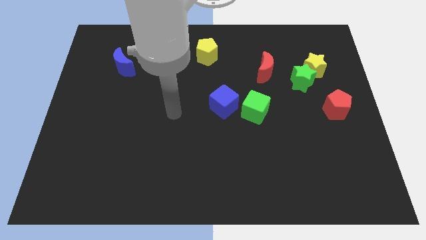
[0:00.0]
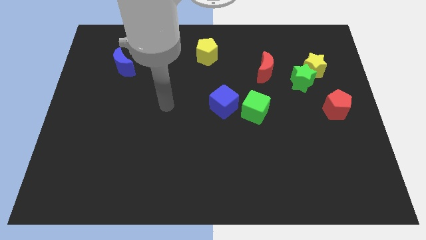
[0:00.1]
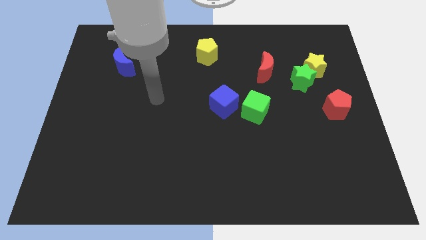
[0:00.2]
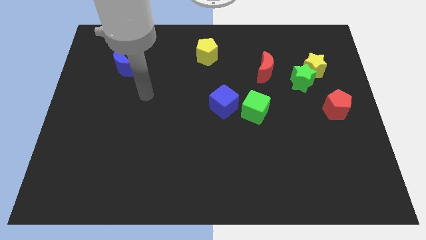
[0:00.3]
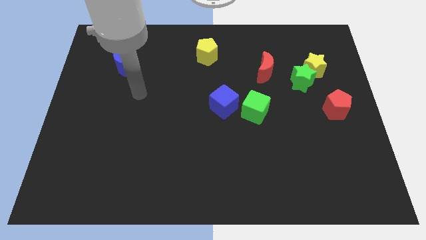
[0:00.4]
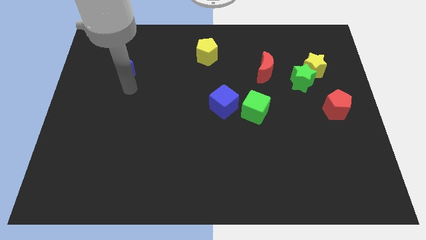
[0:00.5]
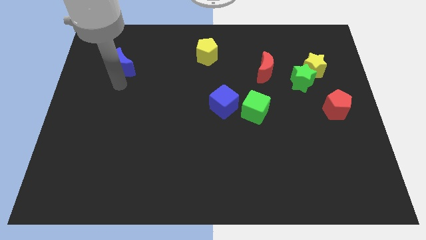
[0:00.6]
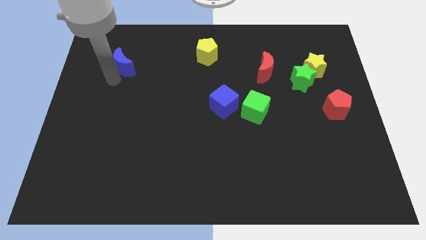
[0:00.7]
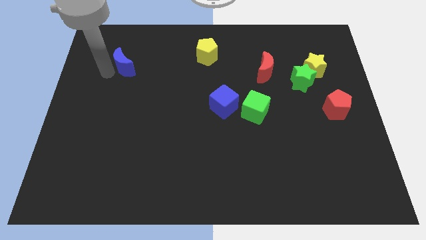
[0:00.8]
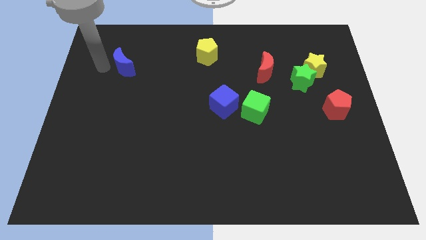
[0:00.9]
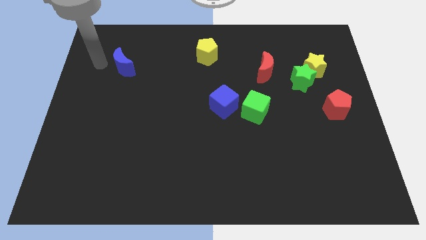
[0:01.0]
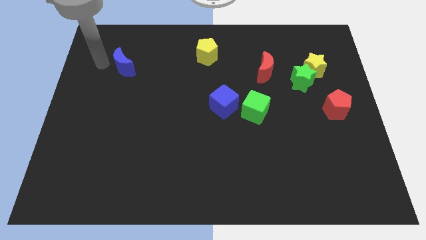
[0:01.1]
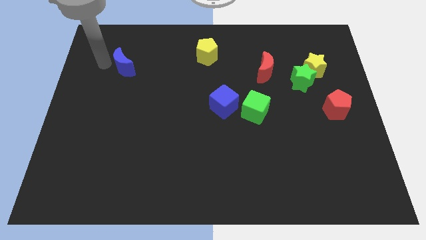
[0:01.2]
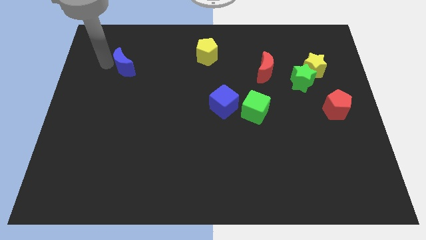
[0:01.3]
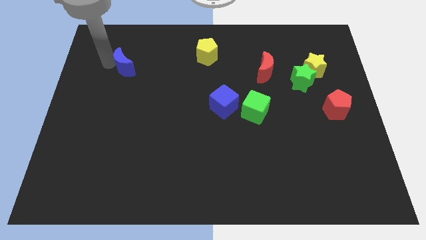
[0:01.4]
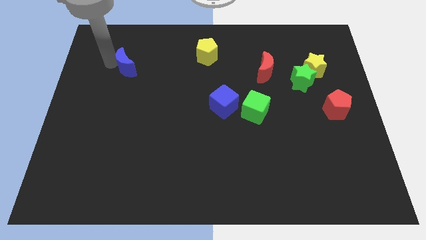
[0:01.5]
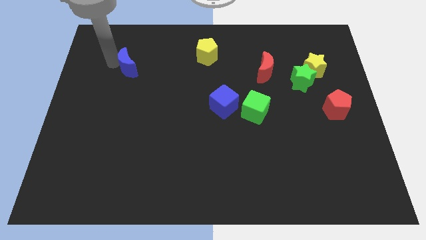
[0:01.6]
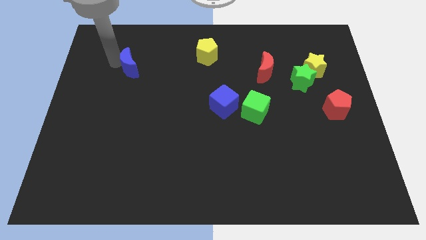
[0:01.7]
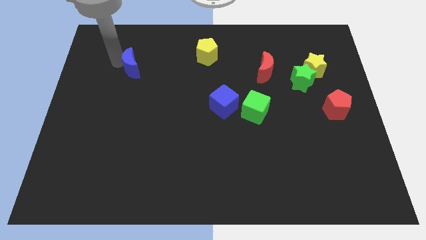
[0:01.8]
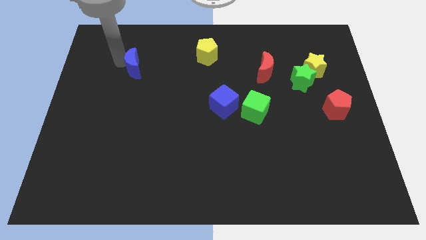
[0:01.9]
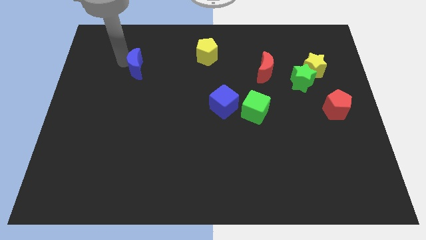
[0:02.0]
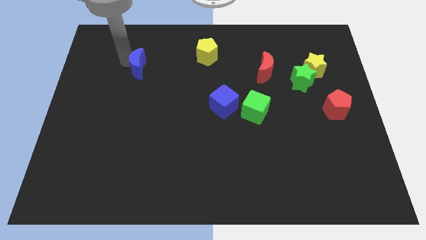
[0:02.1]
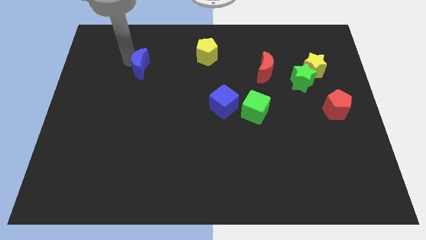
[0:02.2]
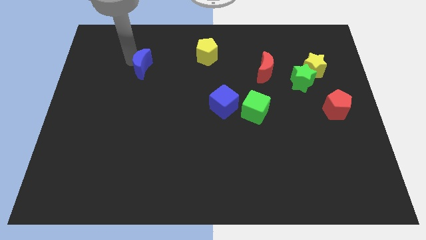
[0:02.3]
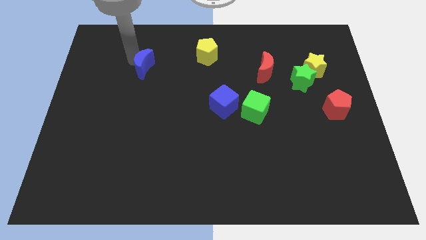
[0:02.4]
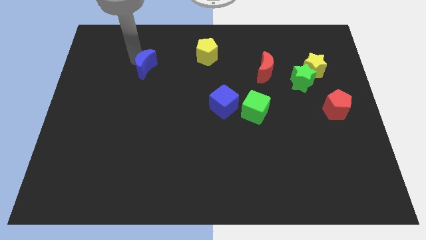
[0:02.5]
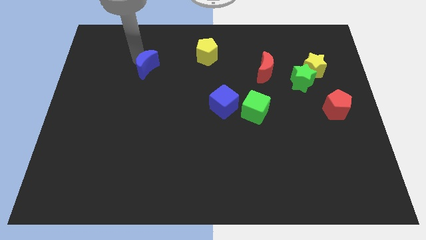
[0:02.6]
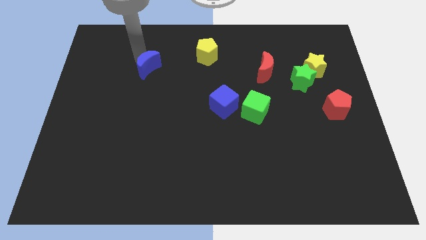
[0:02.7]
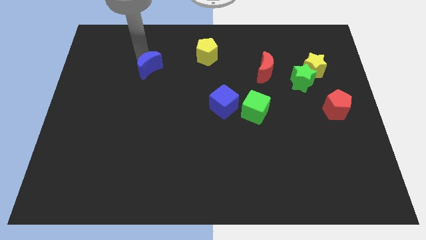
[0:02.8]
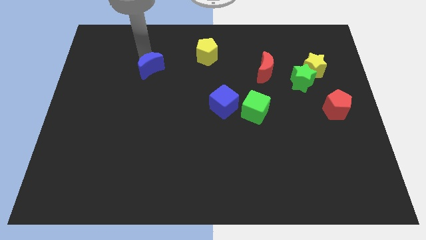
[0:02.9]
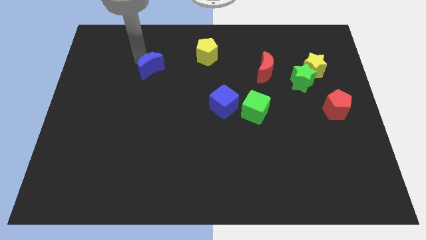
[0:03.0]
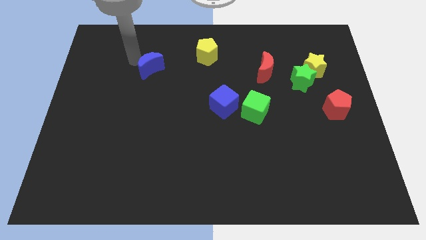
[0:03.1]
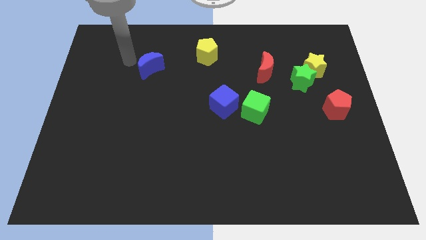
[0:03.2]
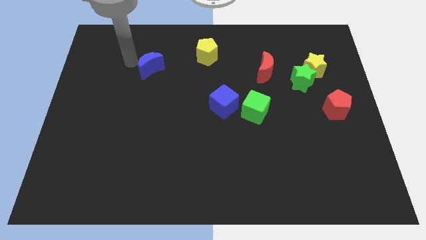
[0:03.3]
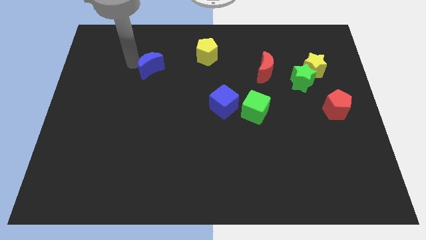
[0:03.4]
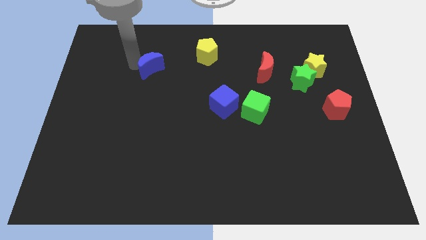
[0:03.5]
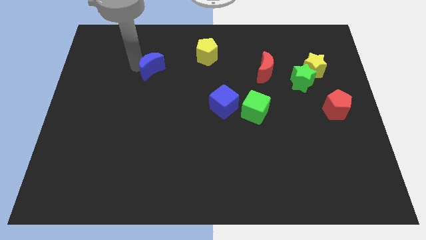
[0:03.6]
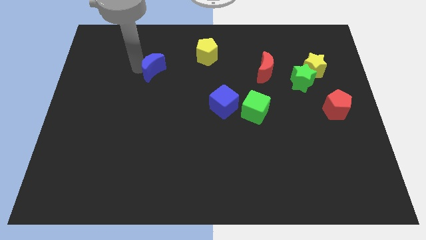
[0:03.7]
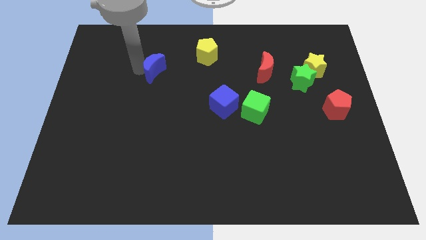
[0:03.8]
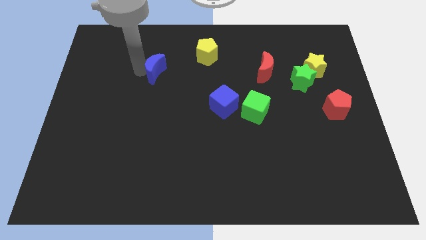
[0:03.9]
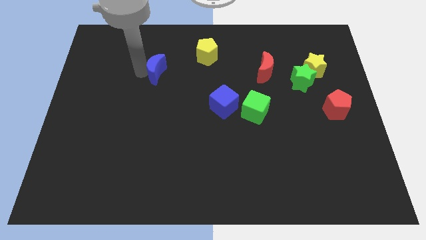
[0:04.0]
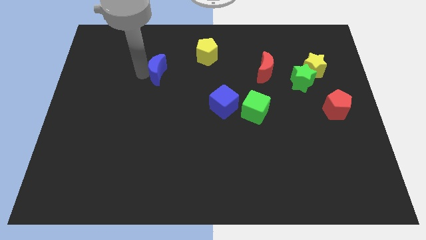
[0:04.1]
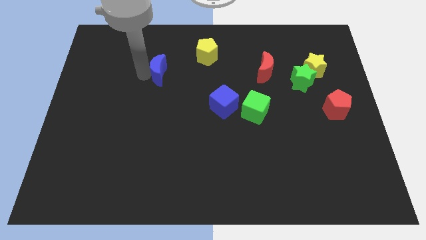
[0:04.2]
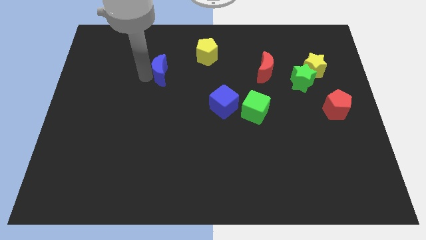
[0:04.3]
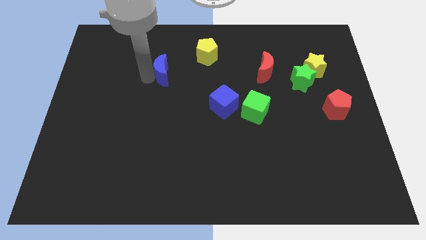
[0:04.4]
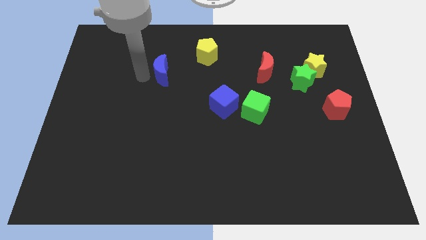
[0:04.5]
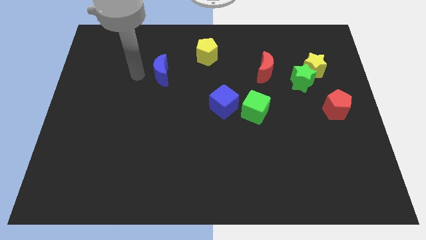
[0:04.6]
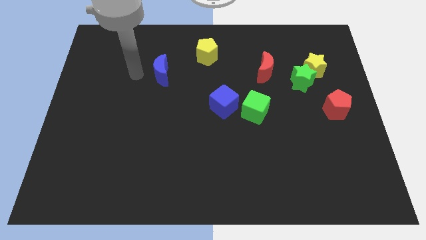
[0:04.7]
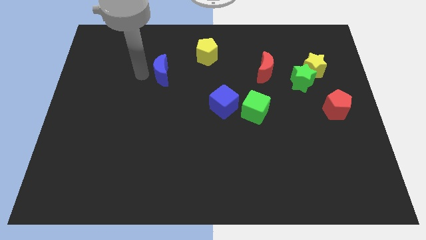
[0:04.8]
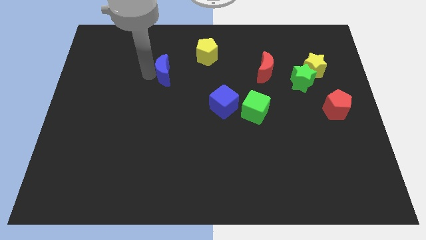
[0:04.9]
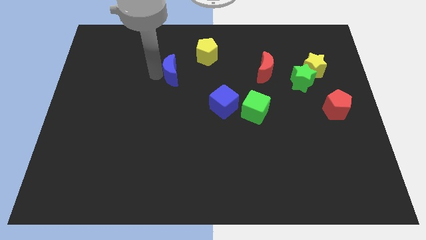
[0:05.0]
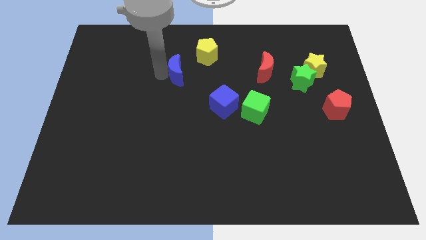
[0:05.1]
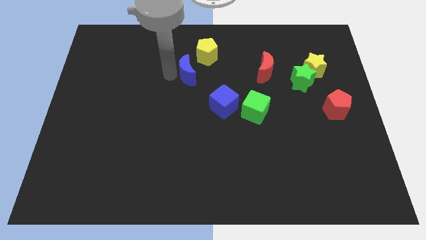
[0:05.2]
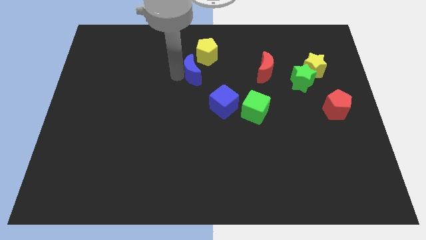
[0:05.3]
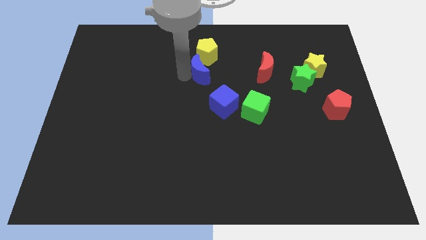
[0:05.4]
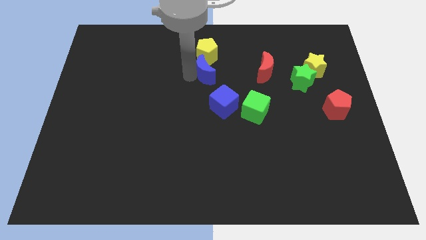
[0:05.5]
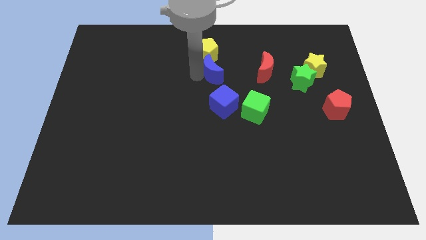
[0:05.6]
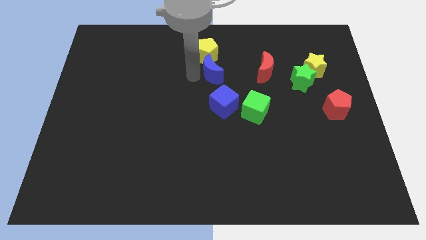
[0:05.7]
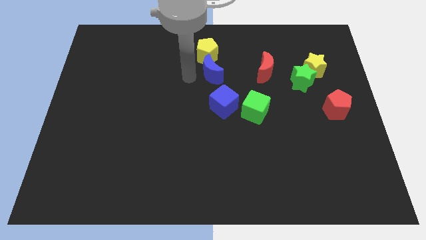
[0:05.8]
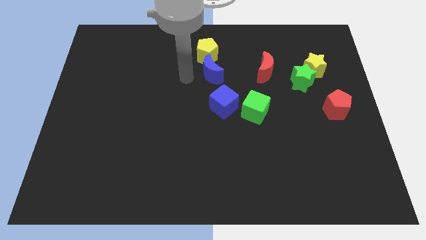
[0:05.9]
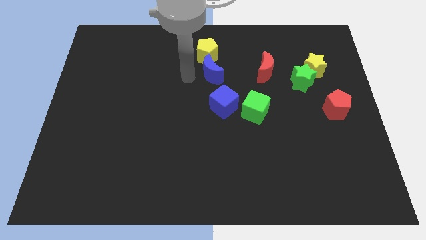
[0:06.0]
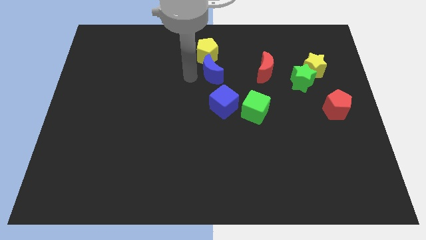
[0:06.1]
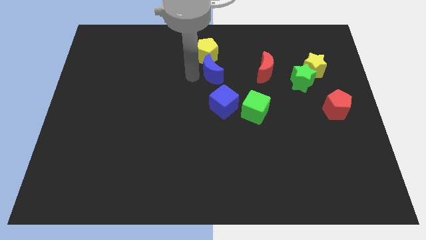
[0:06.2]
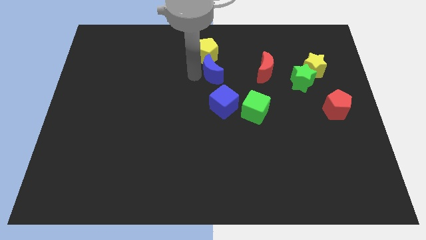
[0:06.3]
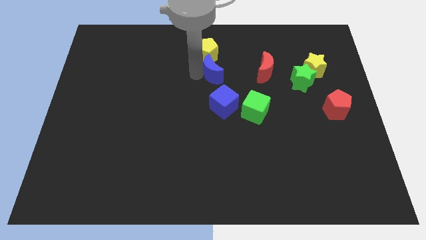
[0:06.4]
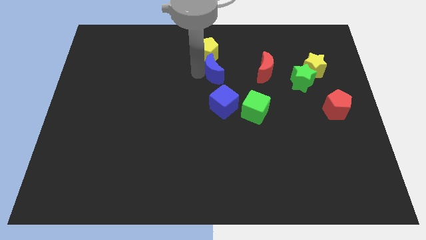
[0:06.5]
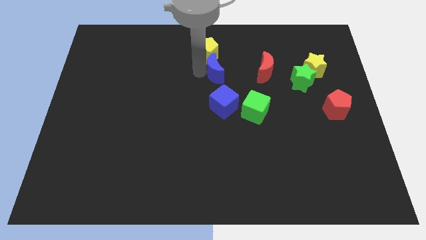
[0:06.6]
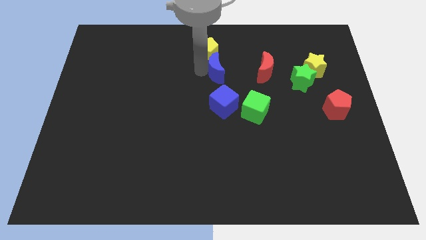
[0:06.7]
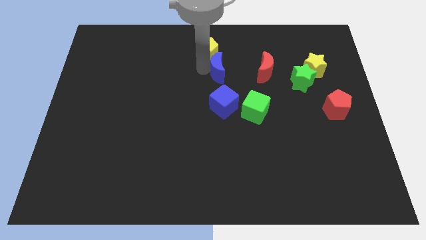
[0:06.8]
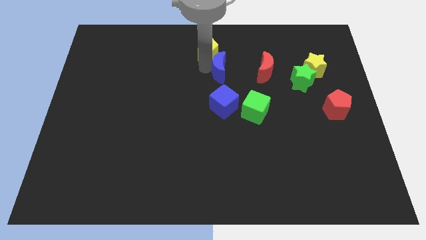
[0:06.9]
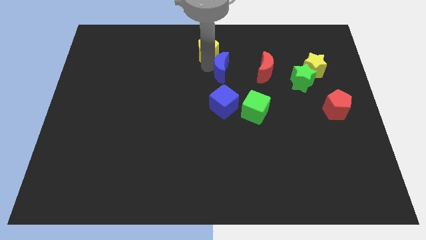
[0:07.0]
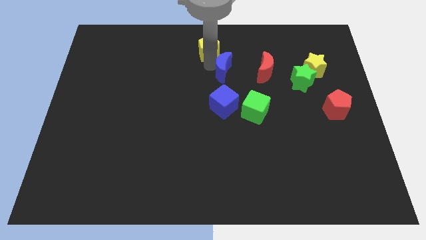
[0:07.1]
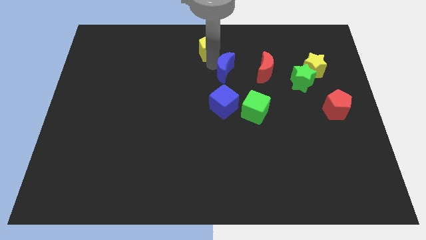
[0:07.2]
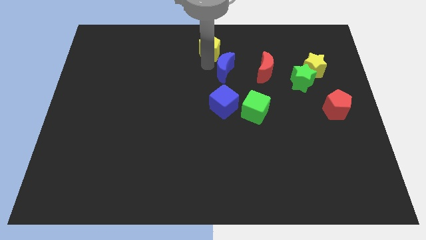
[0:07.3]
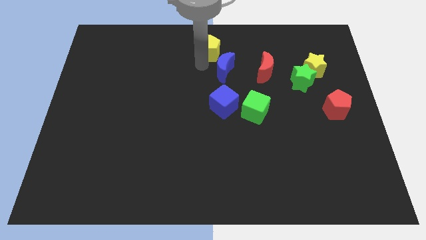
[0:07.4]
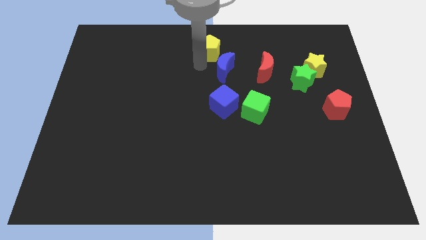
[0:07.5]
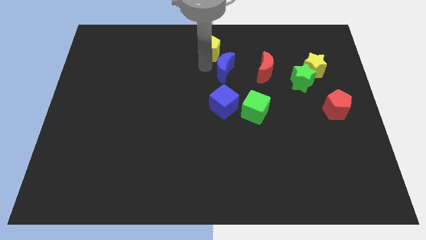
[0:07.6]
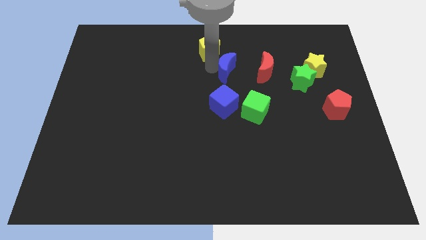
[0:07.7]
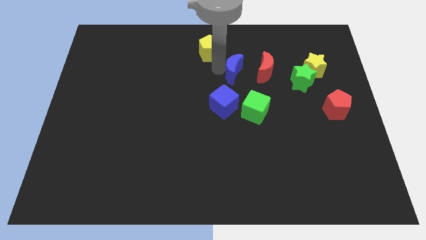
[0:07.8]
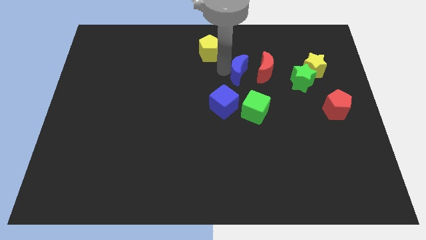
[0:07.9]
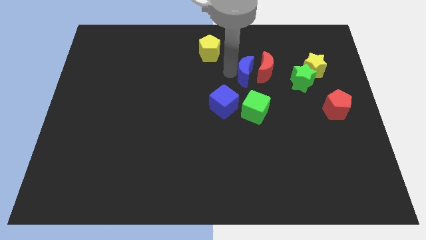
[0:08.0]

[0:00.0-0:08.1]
put the blue moon next to the red moon
